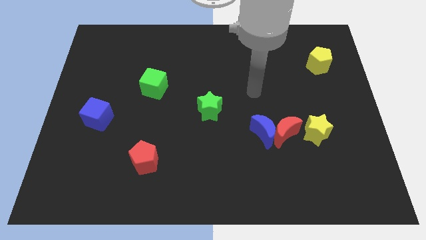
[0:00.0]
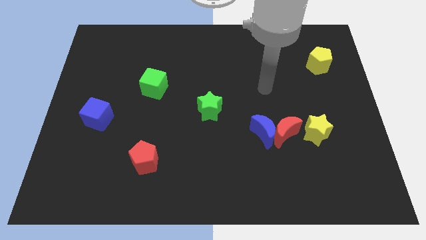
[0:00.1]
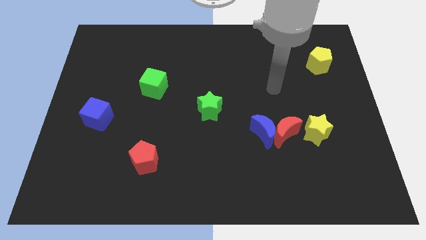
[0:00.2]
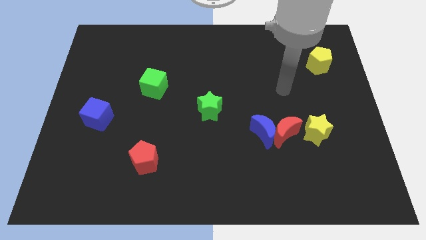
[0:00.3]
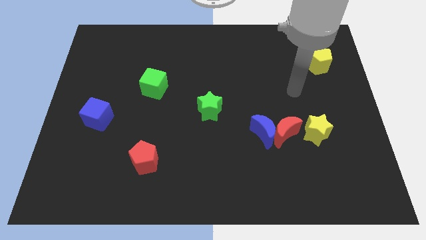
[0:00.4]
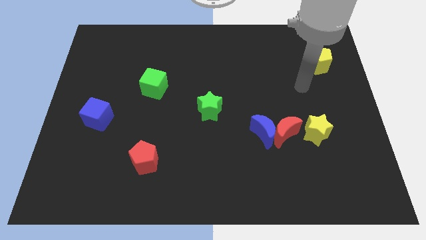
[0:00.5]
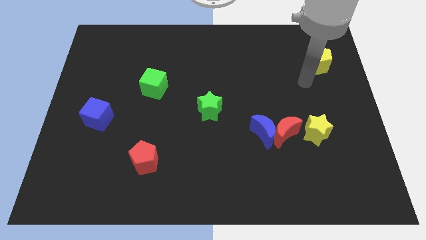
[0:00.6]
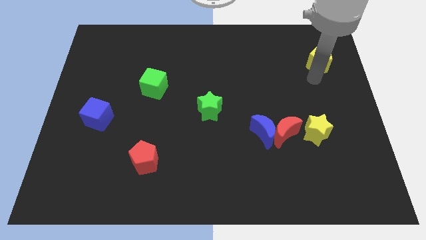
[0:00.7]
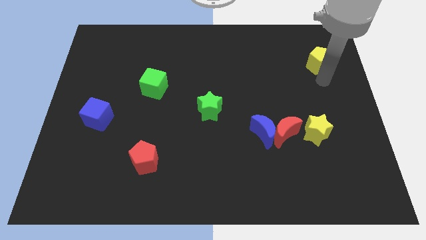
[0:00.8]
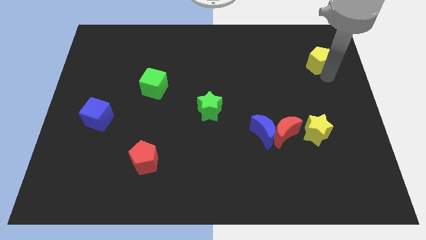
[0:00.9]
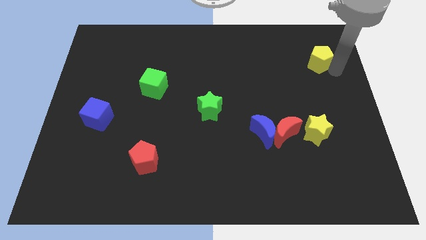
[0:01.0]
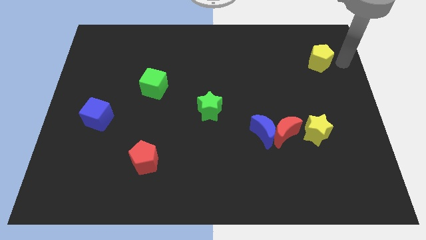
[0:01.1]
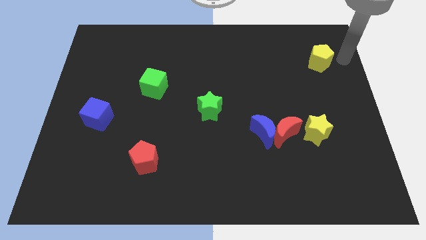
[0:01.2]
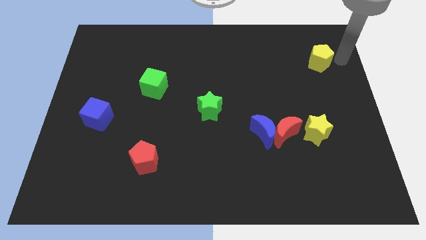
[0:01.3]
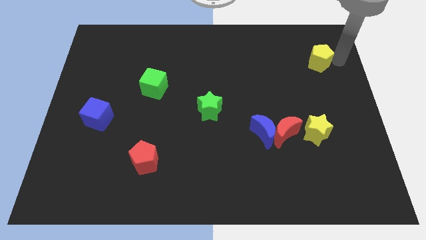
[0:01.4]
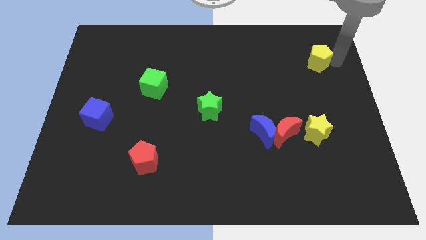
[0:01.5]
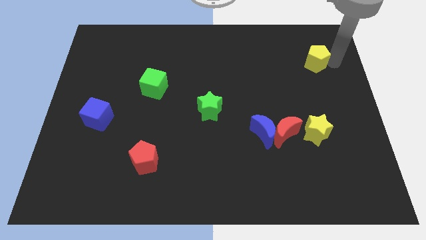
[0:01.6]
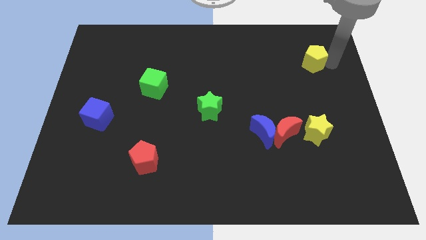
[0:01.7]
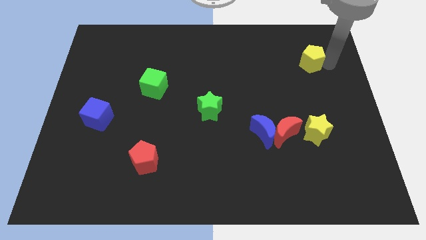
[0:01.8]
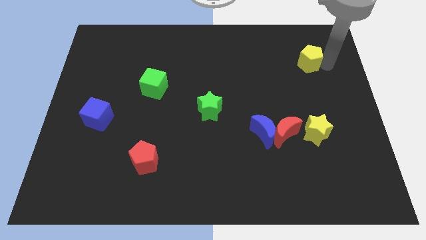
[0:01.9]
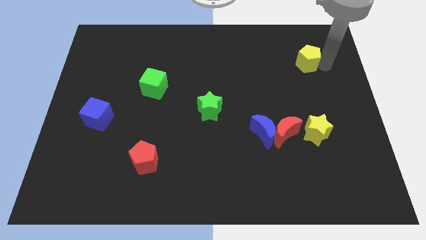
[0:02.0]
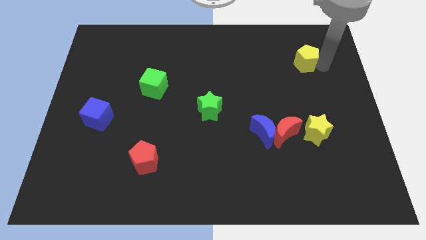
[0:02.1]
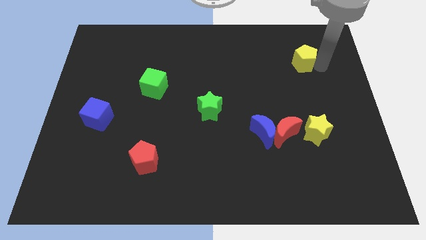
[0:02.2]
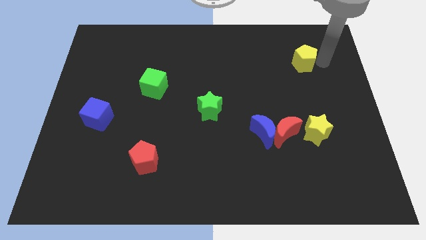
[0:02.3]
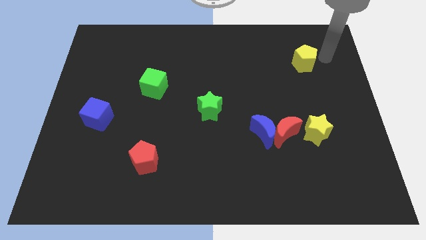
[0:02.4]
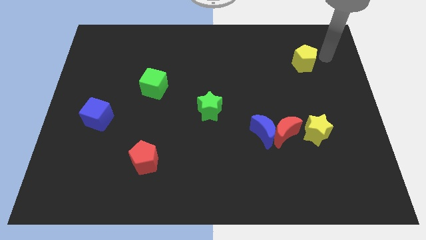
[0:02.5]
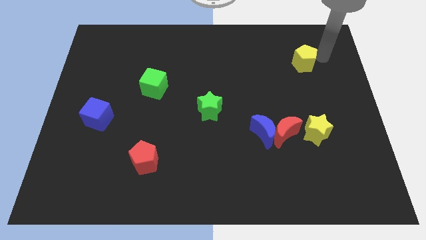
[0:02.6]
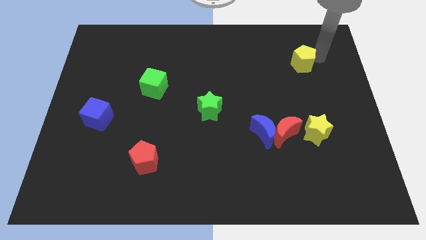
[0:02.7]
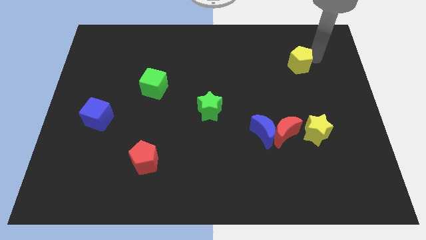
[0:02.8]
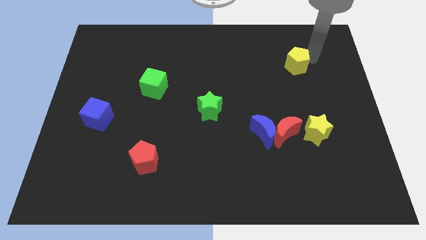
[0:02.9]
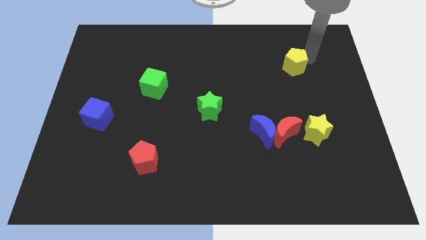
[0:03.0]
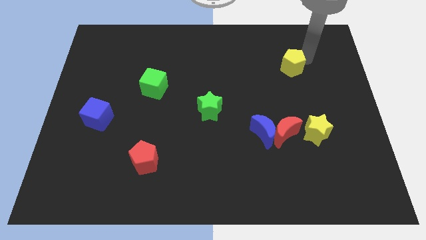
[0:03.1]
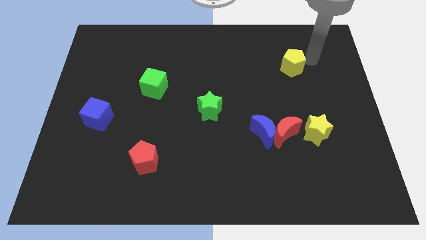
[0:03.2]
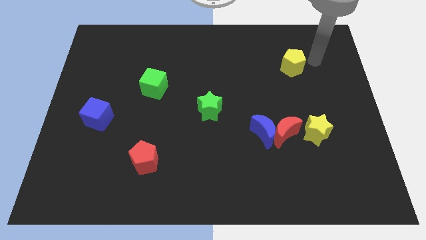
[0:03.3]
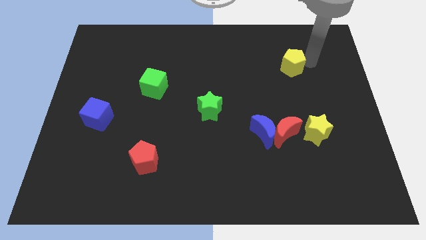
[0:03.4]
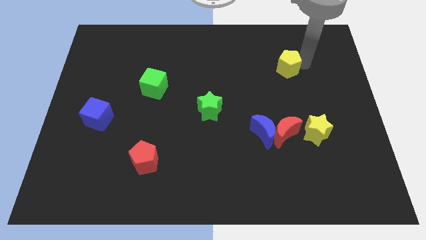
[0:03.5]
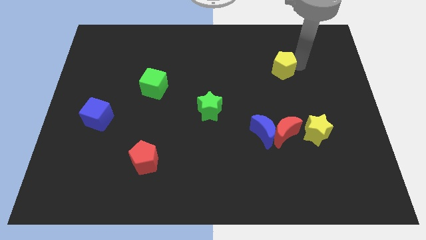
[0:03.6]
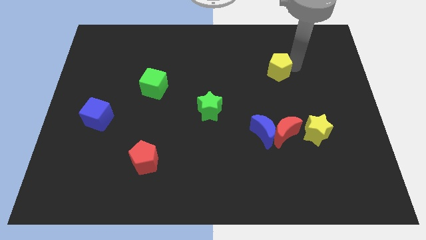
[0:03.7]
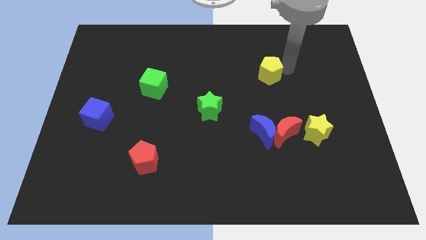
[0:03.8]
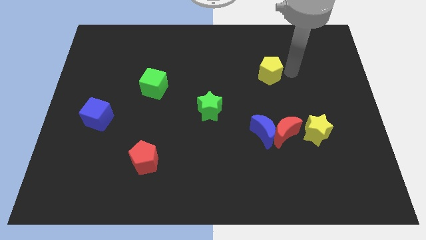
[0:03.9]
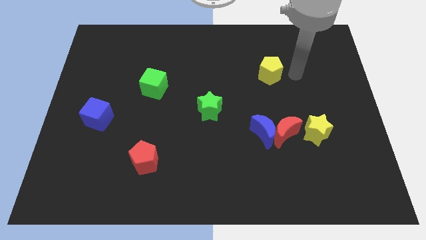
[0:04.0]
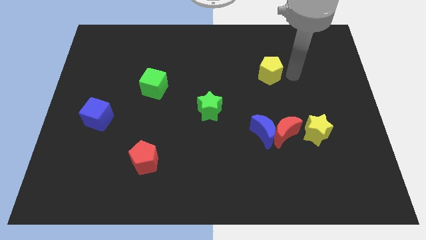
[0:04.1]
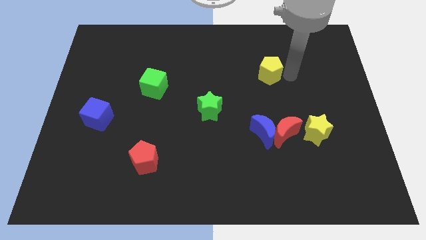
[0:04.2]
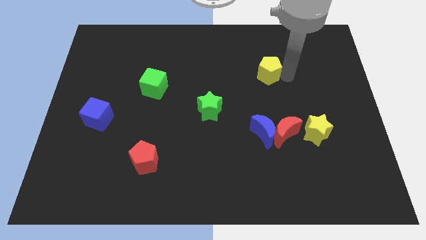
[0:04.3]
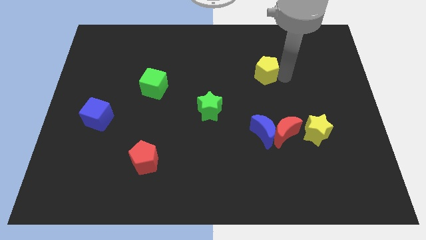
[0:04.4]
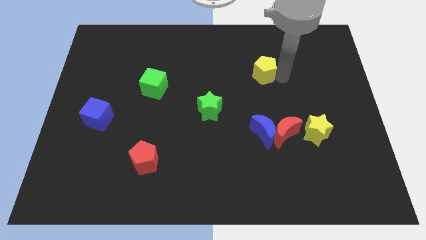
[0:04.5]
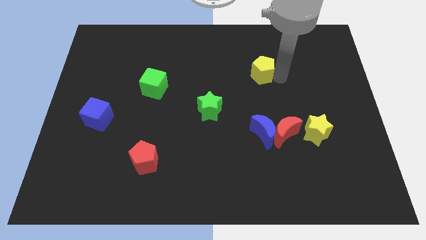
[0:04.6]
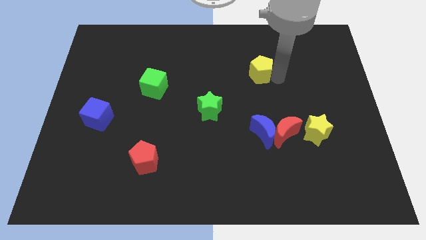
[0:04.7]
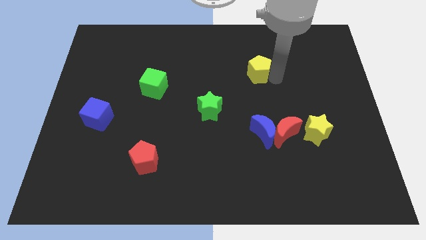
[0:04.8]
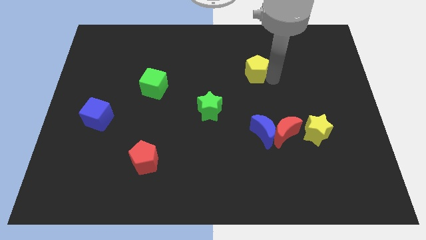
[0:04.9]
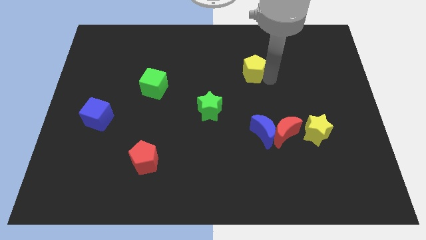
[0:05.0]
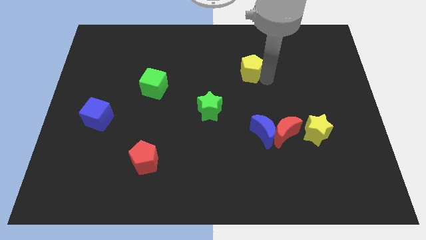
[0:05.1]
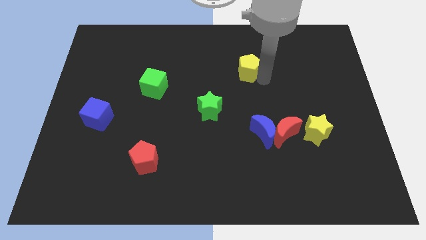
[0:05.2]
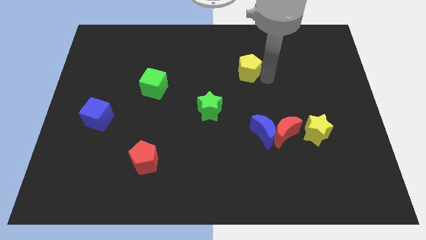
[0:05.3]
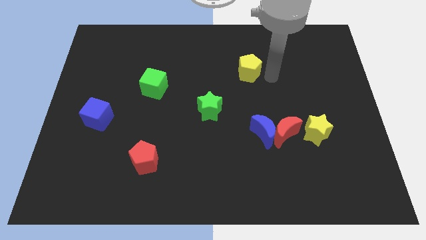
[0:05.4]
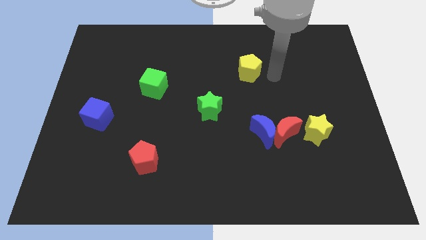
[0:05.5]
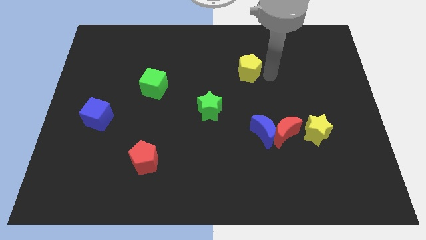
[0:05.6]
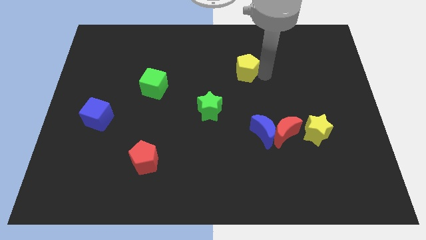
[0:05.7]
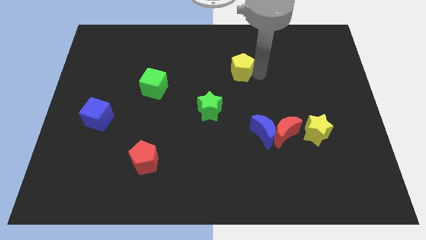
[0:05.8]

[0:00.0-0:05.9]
move the yellow pentagon left

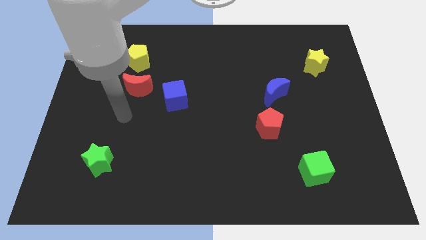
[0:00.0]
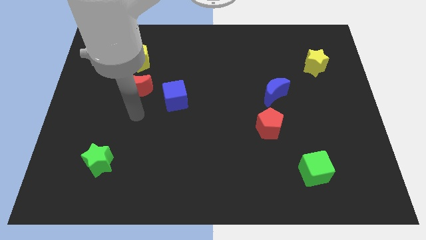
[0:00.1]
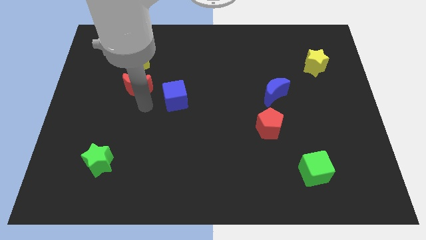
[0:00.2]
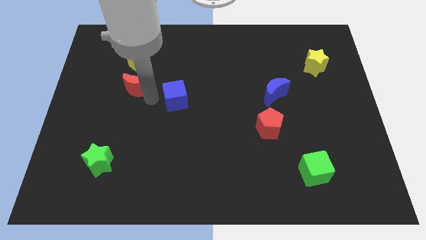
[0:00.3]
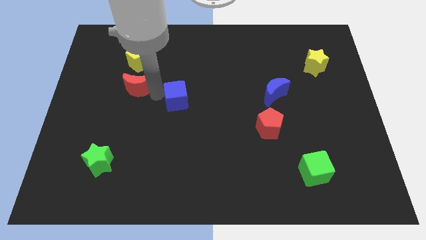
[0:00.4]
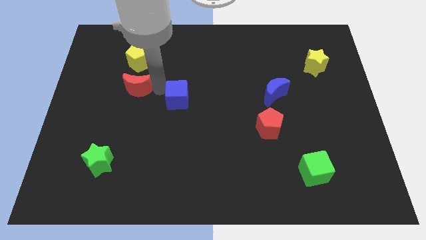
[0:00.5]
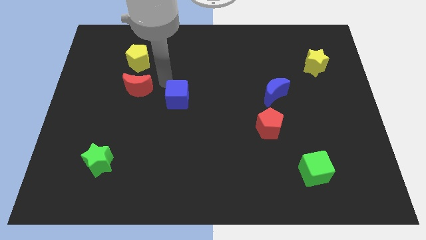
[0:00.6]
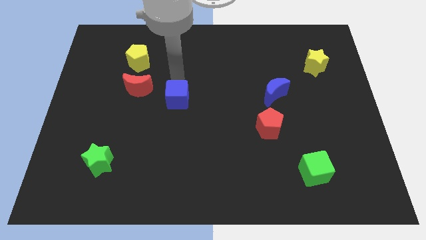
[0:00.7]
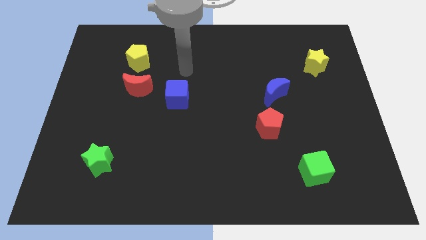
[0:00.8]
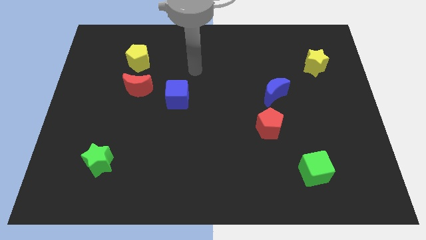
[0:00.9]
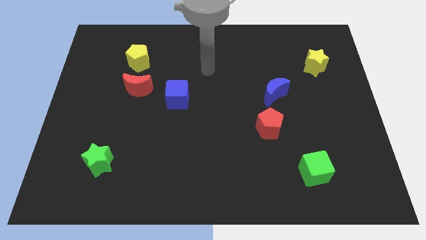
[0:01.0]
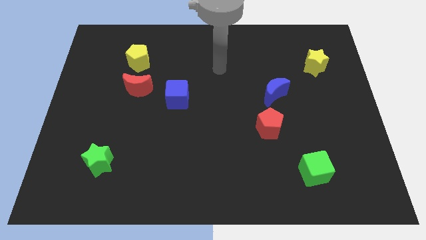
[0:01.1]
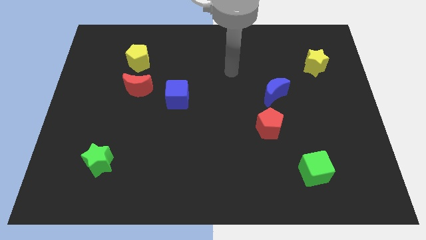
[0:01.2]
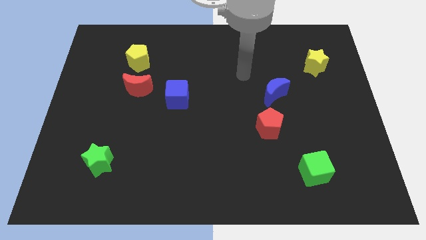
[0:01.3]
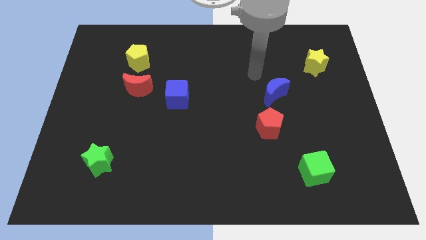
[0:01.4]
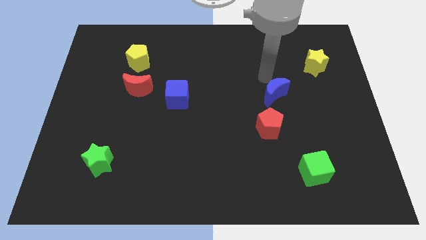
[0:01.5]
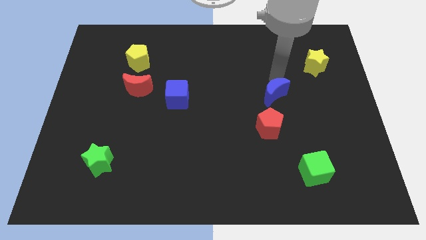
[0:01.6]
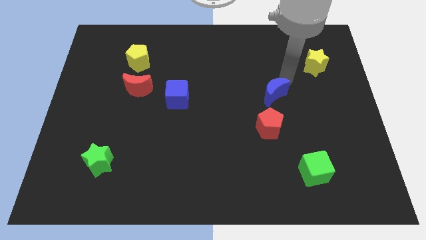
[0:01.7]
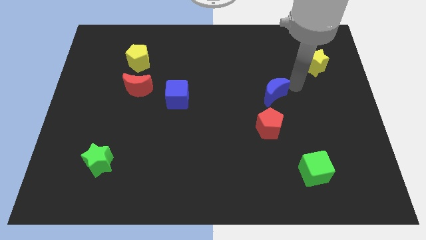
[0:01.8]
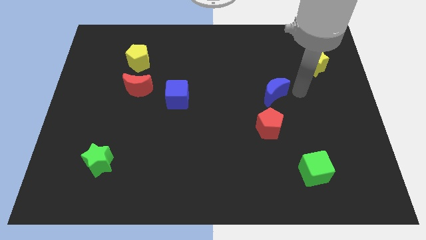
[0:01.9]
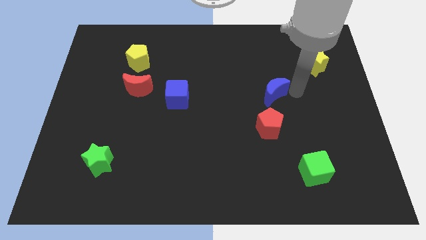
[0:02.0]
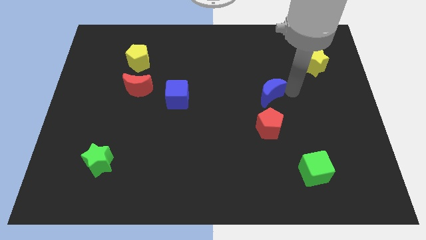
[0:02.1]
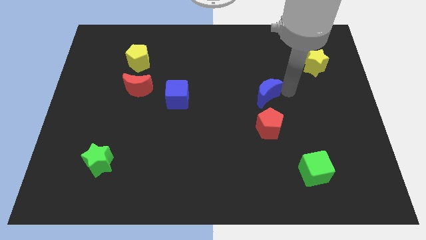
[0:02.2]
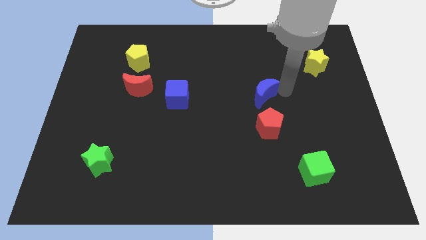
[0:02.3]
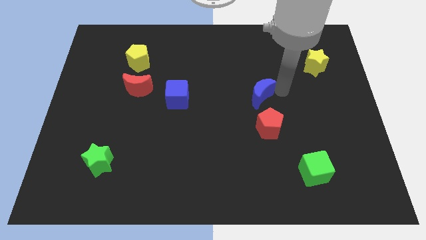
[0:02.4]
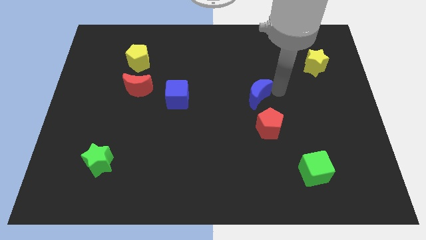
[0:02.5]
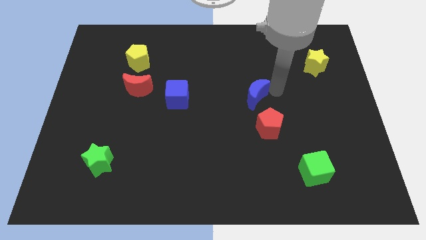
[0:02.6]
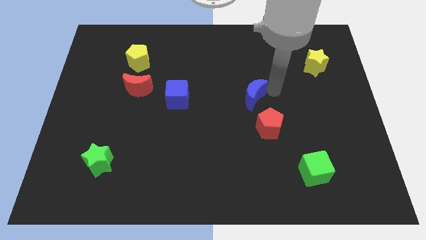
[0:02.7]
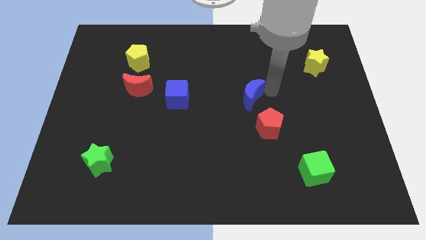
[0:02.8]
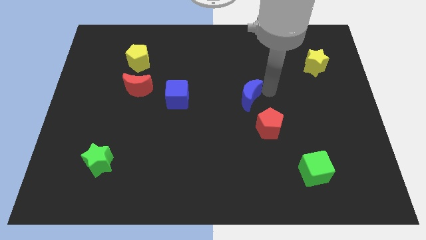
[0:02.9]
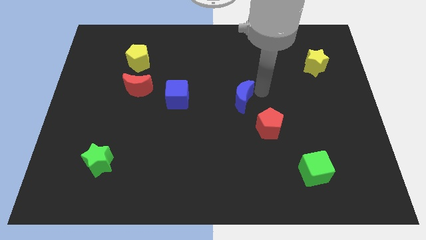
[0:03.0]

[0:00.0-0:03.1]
slightly push the blue moon to the left
